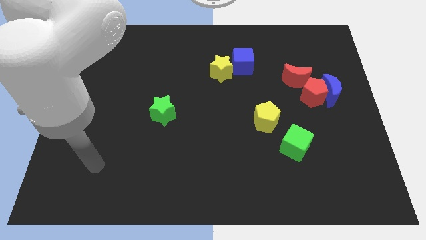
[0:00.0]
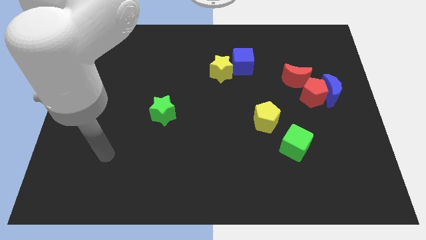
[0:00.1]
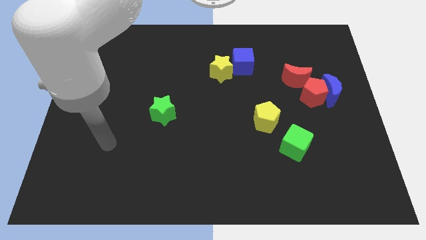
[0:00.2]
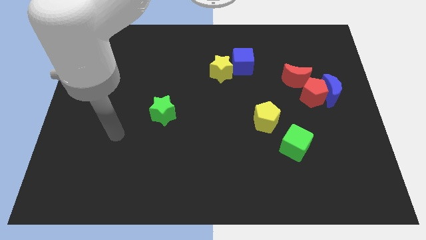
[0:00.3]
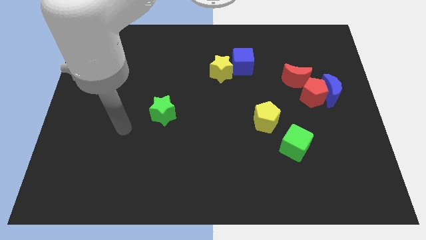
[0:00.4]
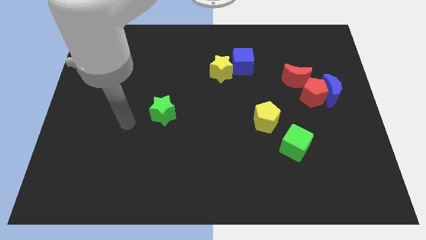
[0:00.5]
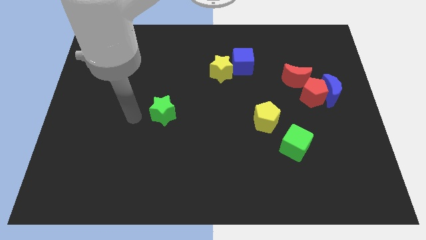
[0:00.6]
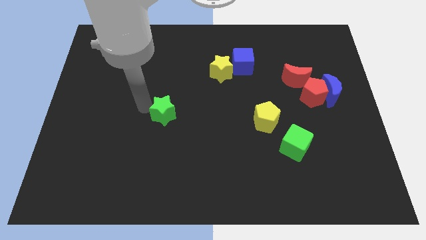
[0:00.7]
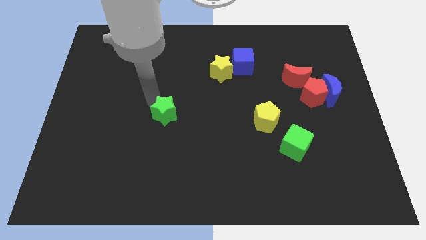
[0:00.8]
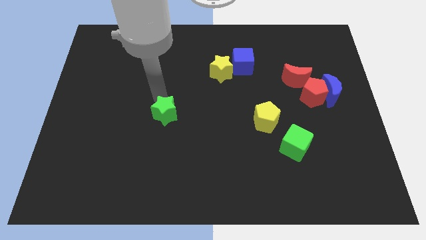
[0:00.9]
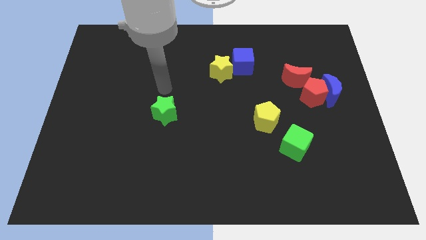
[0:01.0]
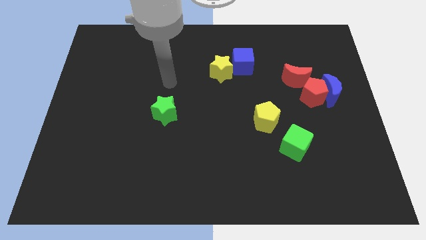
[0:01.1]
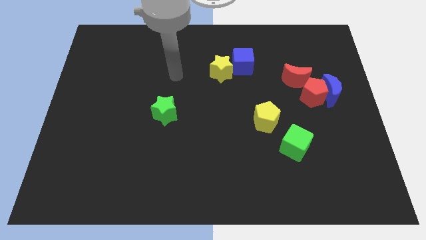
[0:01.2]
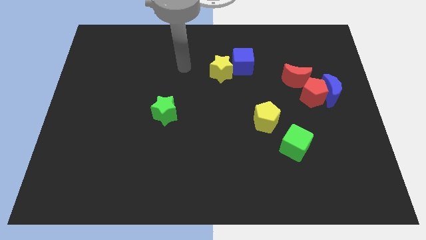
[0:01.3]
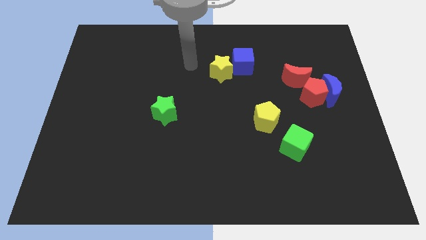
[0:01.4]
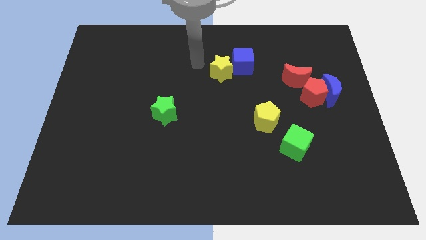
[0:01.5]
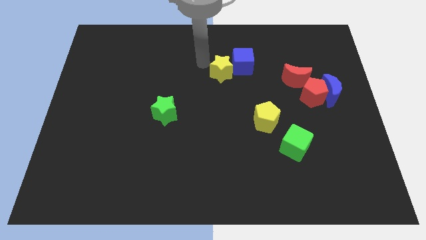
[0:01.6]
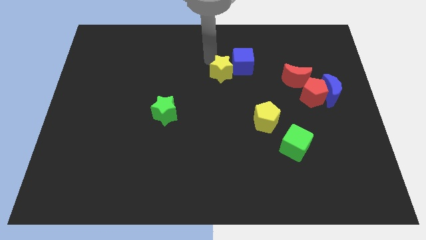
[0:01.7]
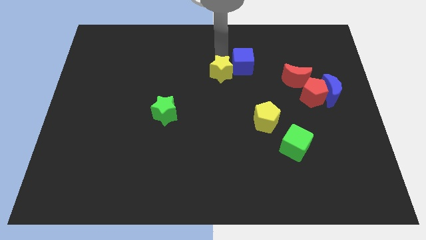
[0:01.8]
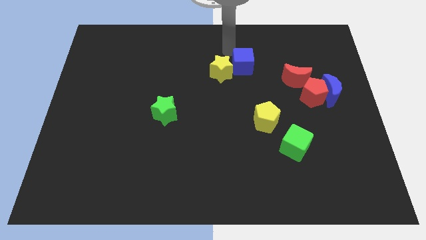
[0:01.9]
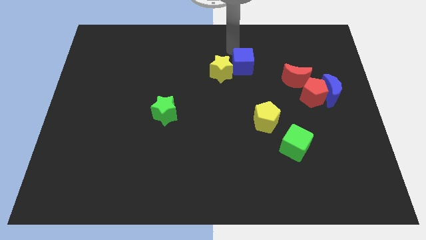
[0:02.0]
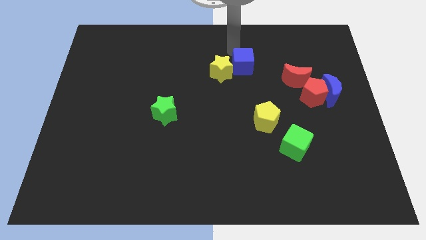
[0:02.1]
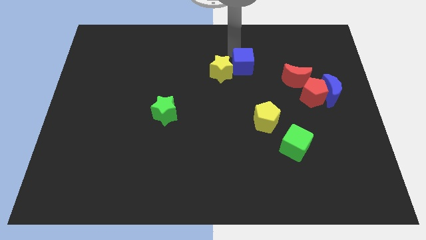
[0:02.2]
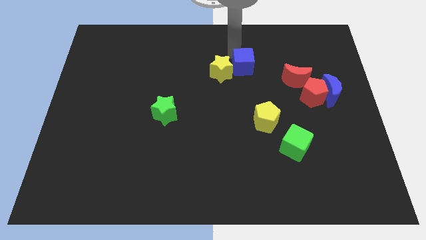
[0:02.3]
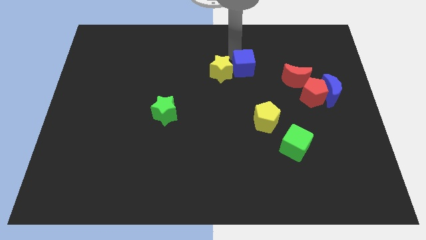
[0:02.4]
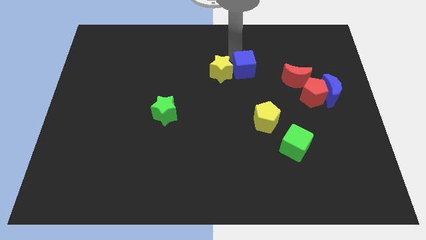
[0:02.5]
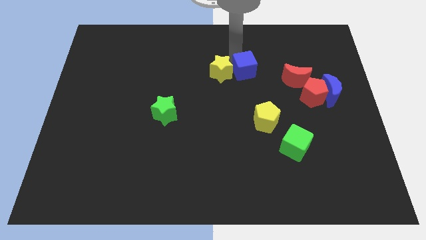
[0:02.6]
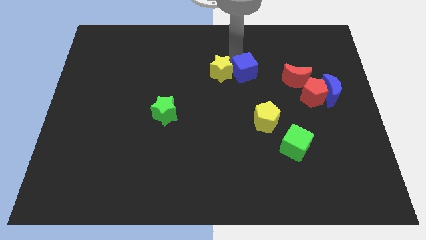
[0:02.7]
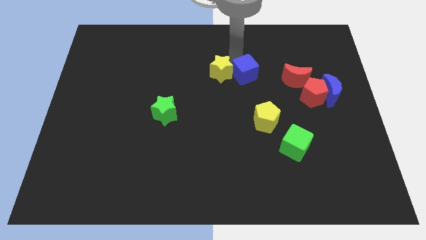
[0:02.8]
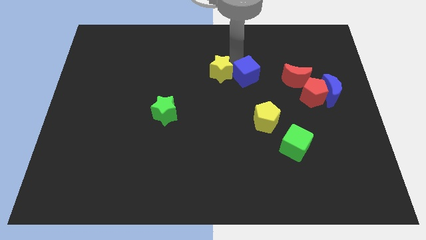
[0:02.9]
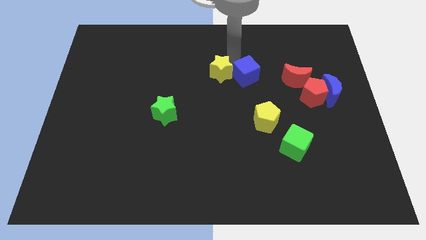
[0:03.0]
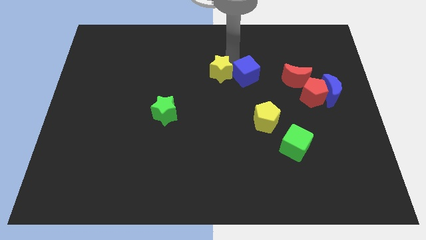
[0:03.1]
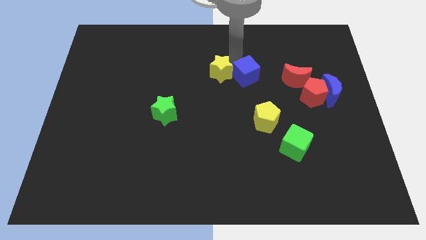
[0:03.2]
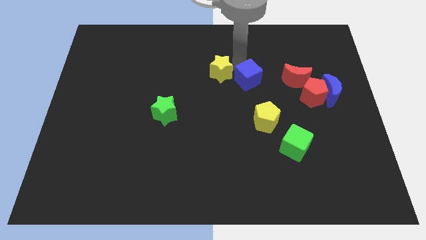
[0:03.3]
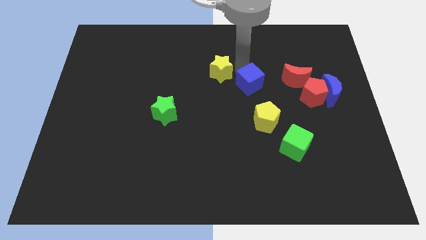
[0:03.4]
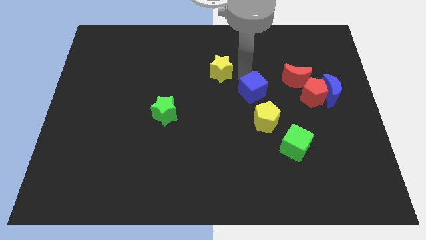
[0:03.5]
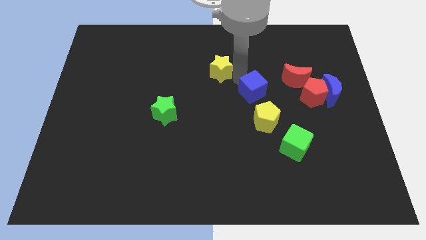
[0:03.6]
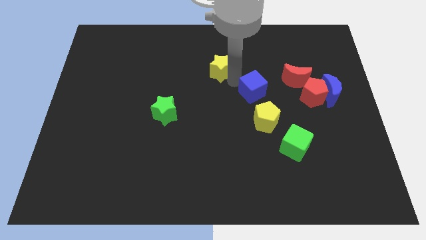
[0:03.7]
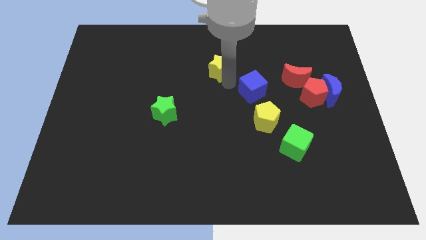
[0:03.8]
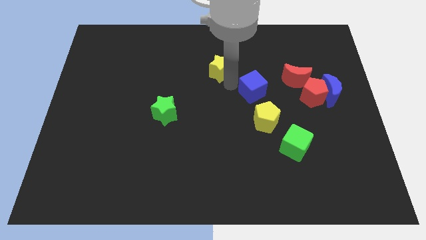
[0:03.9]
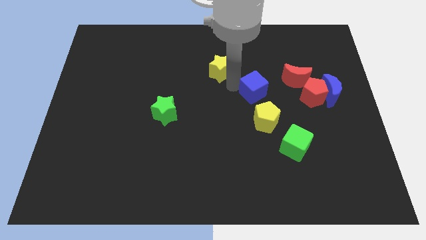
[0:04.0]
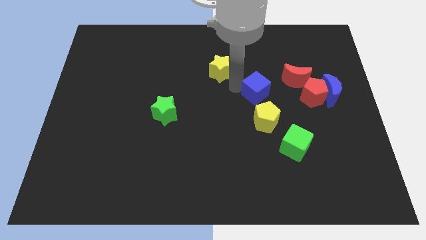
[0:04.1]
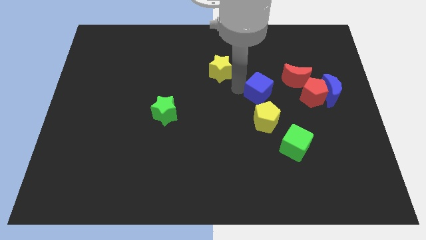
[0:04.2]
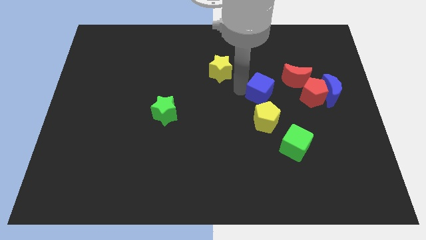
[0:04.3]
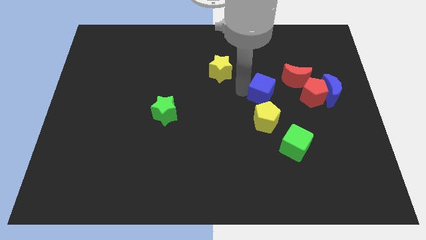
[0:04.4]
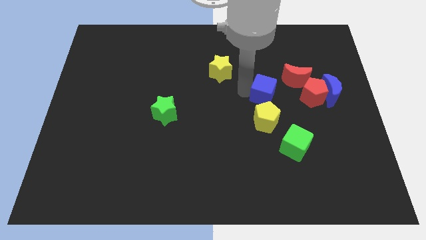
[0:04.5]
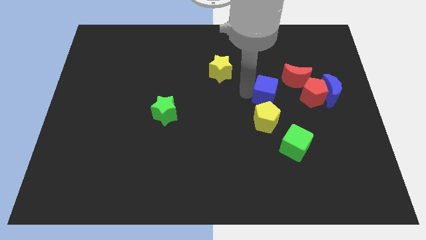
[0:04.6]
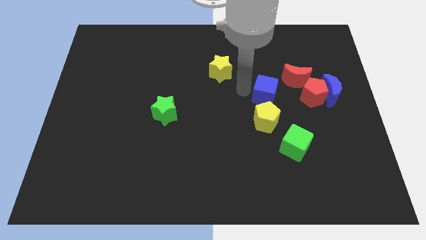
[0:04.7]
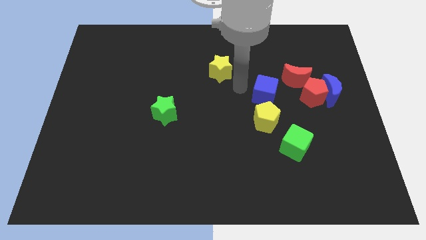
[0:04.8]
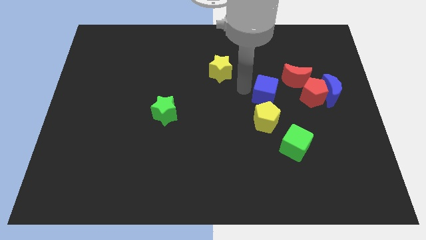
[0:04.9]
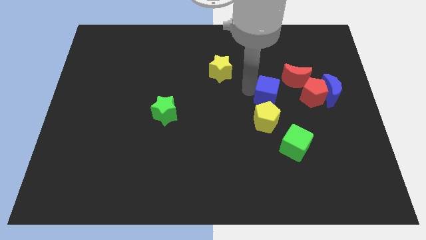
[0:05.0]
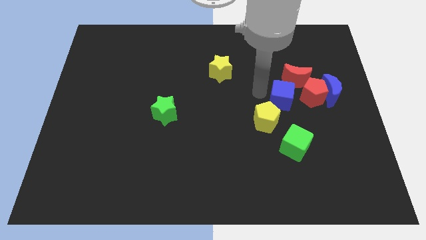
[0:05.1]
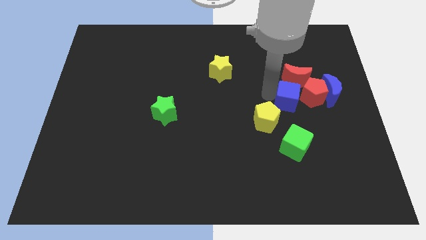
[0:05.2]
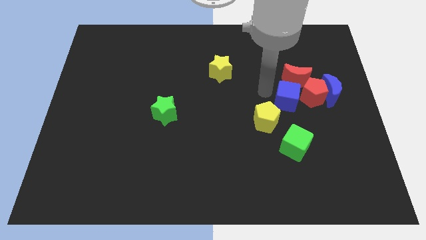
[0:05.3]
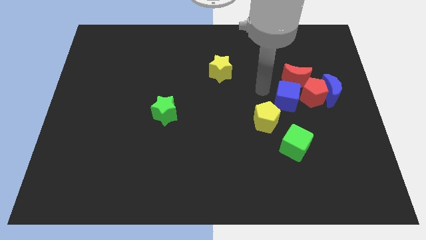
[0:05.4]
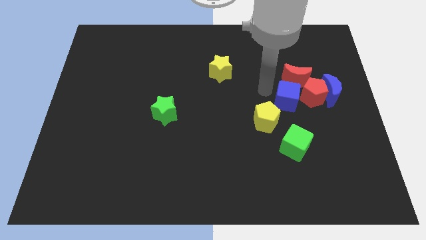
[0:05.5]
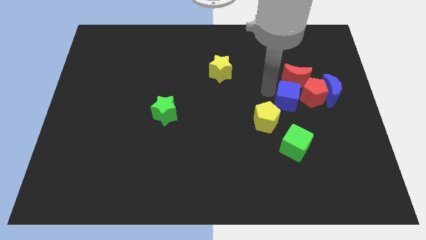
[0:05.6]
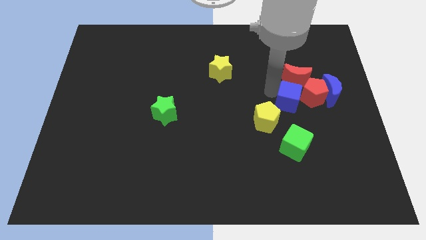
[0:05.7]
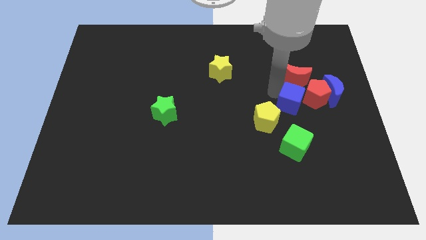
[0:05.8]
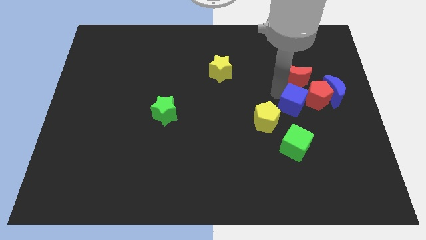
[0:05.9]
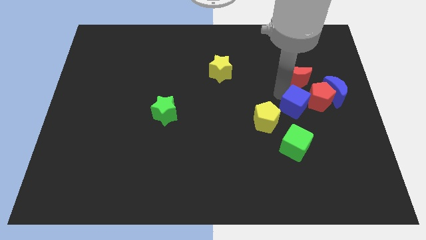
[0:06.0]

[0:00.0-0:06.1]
put the blue cube to the bottom left side of the blue moon
